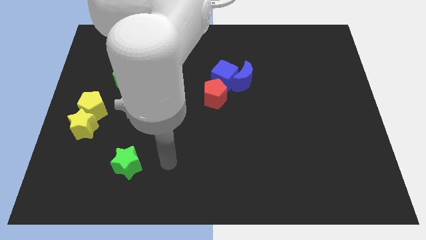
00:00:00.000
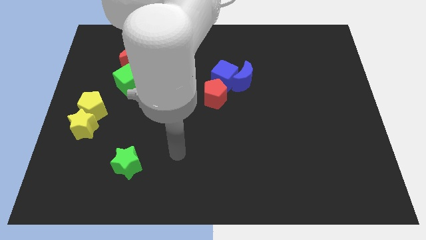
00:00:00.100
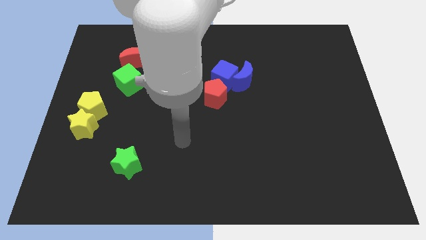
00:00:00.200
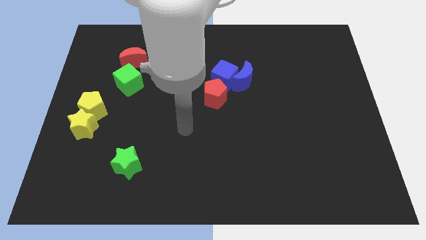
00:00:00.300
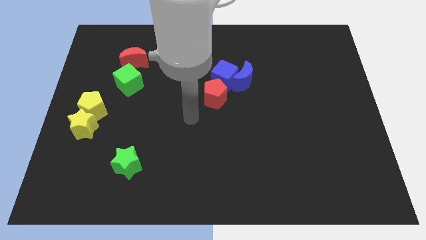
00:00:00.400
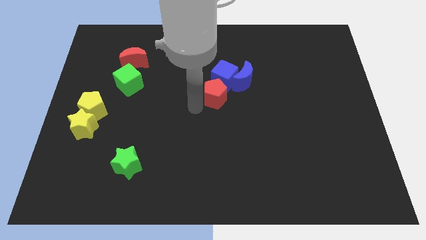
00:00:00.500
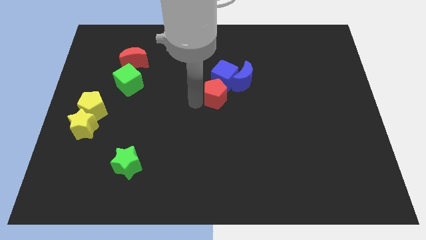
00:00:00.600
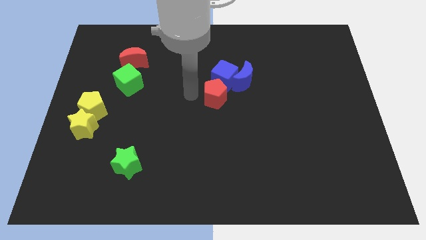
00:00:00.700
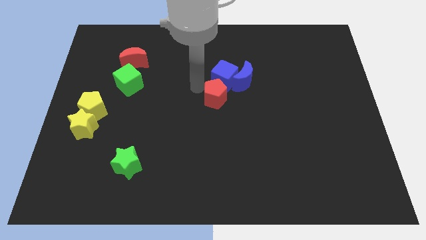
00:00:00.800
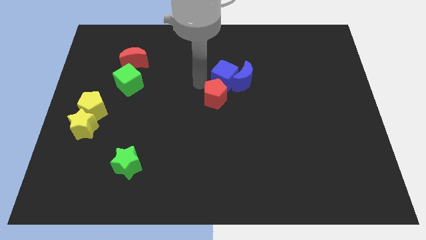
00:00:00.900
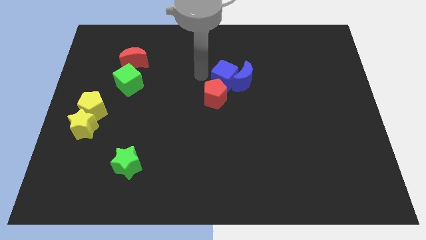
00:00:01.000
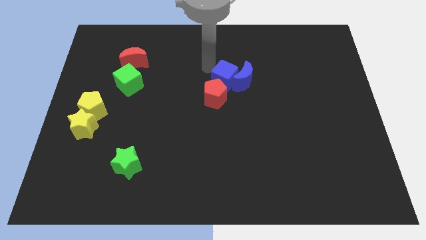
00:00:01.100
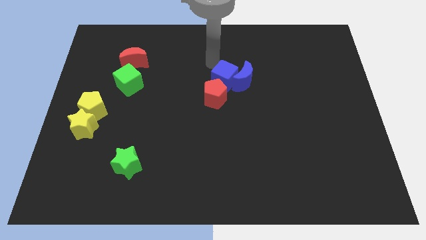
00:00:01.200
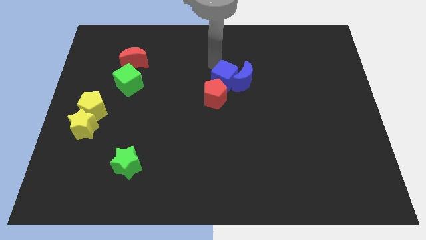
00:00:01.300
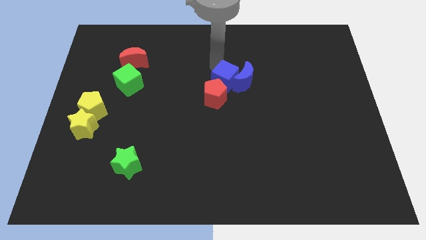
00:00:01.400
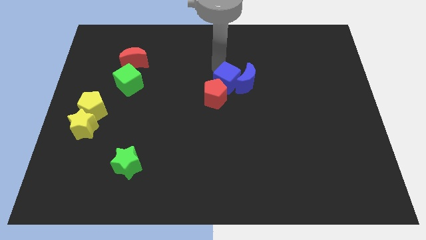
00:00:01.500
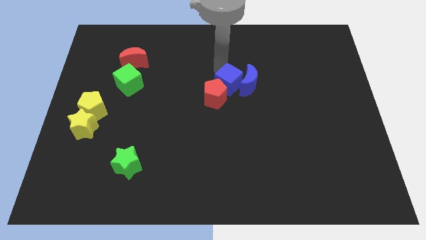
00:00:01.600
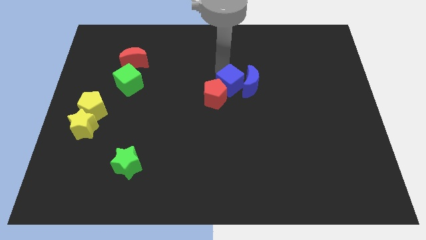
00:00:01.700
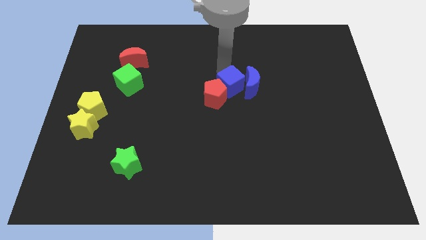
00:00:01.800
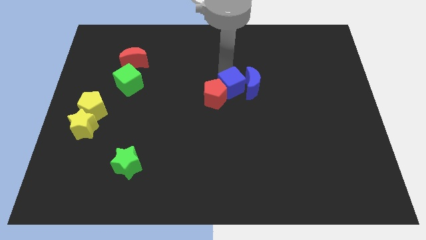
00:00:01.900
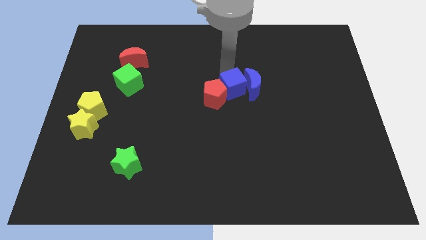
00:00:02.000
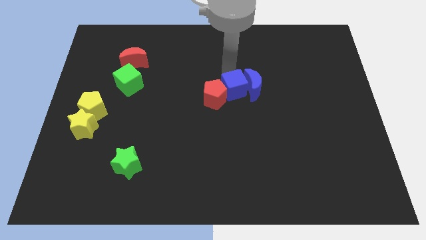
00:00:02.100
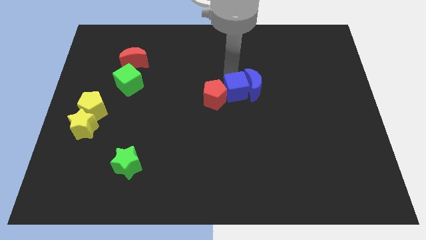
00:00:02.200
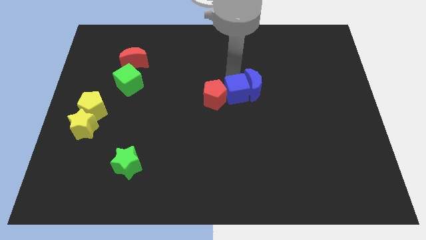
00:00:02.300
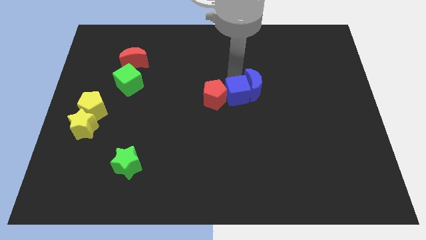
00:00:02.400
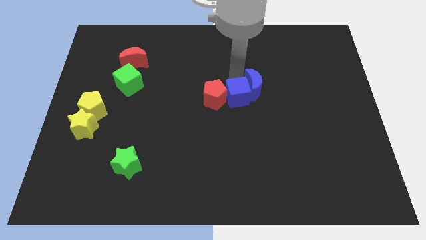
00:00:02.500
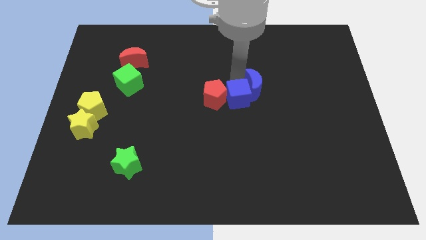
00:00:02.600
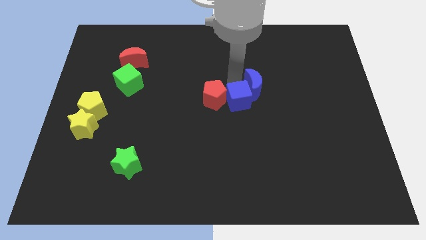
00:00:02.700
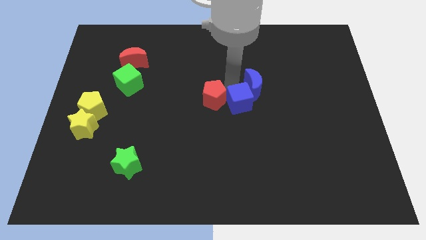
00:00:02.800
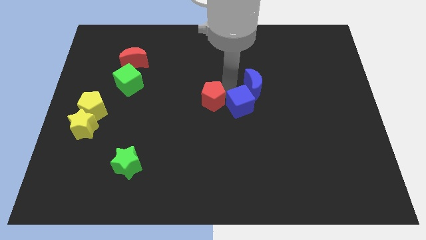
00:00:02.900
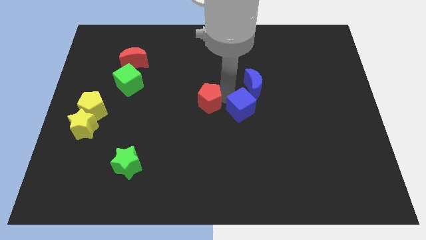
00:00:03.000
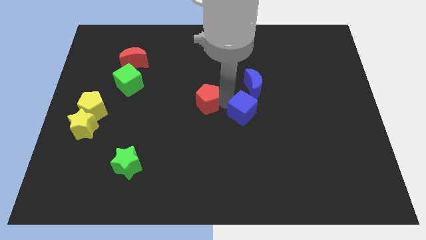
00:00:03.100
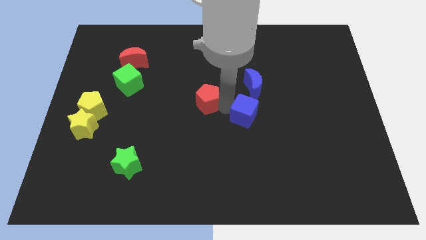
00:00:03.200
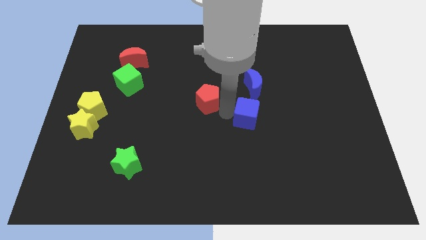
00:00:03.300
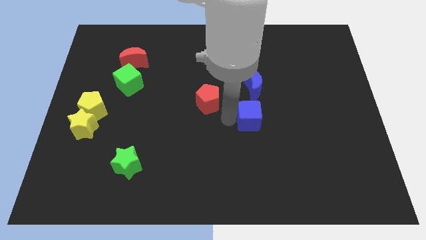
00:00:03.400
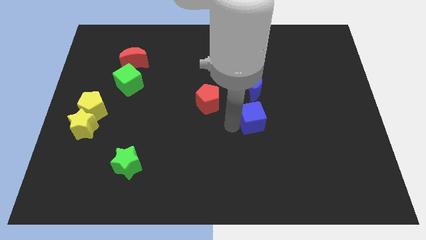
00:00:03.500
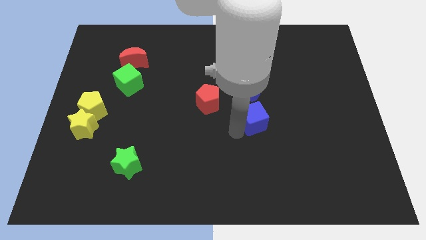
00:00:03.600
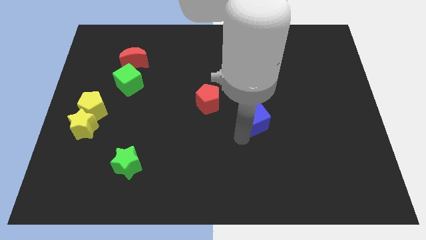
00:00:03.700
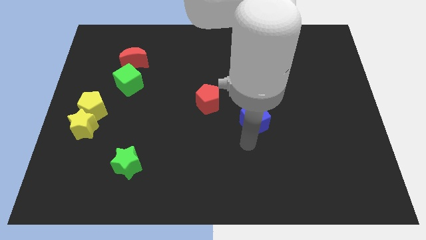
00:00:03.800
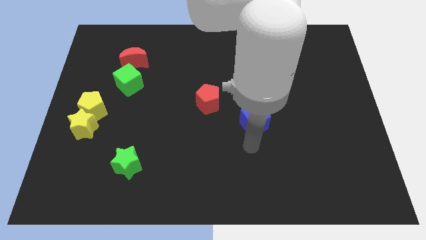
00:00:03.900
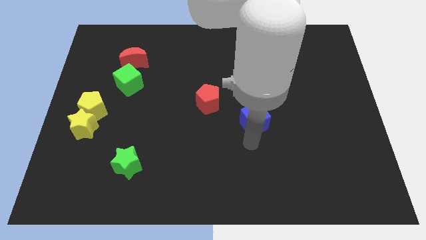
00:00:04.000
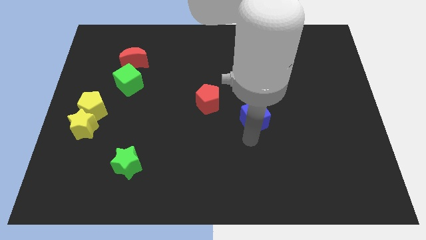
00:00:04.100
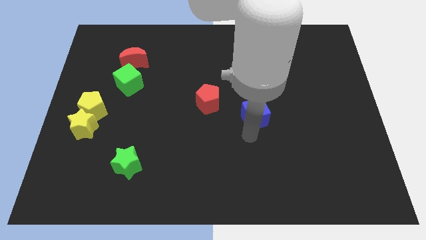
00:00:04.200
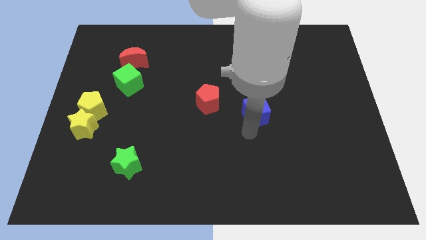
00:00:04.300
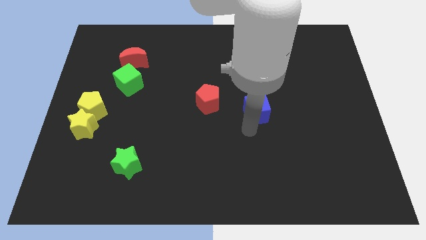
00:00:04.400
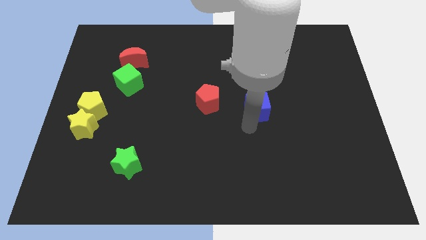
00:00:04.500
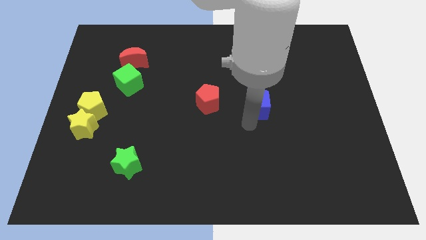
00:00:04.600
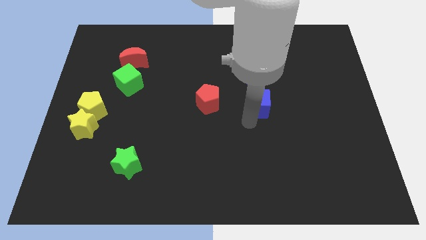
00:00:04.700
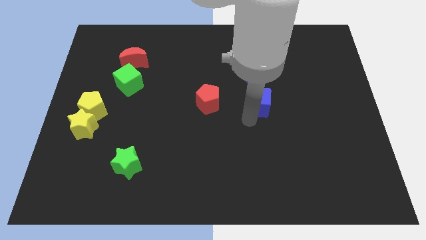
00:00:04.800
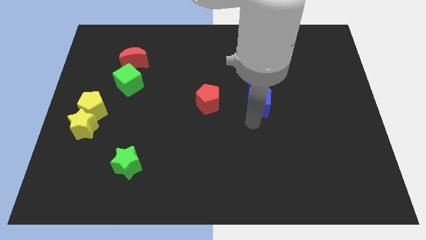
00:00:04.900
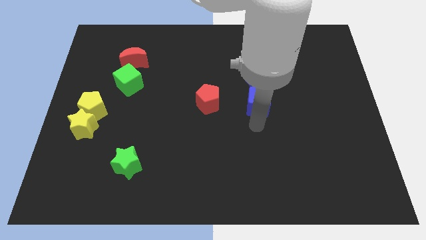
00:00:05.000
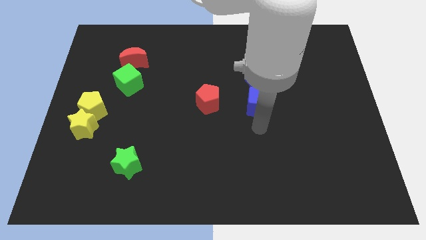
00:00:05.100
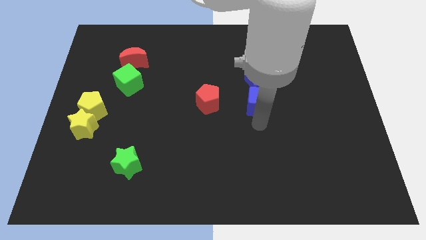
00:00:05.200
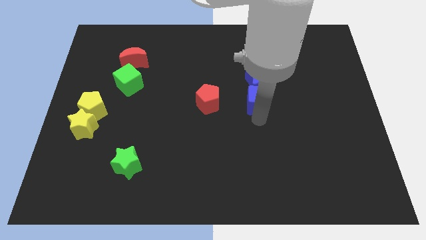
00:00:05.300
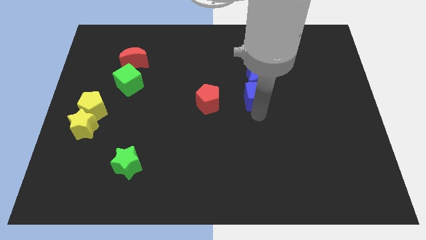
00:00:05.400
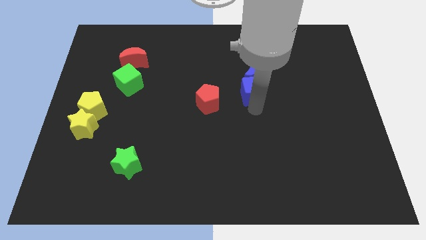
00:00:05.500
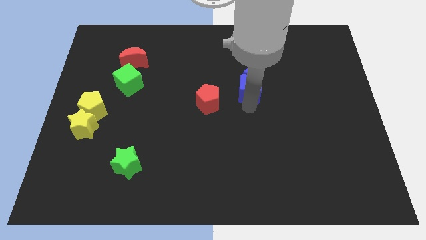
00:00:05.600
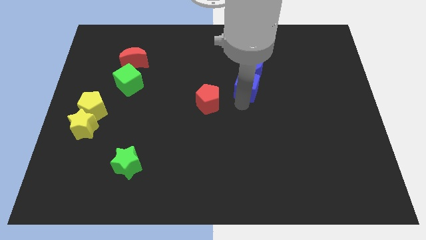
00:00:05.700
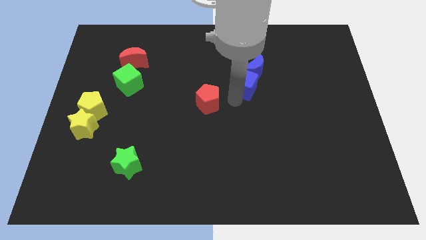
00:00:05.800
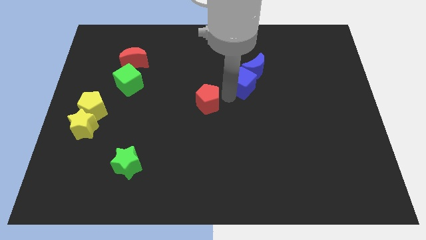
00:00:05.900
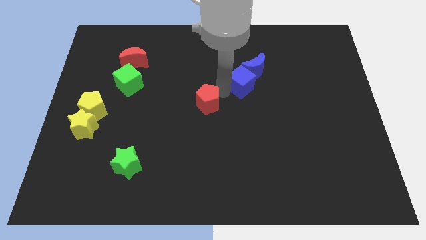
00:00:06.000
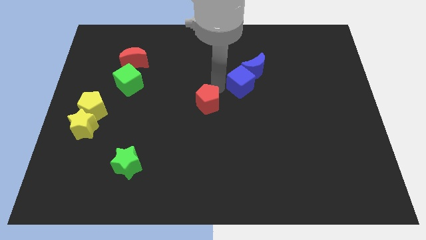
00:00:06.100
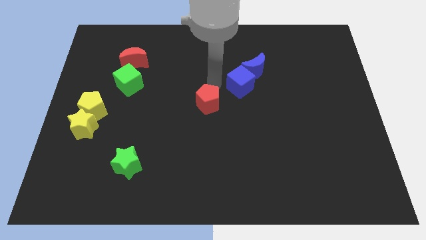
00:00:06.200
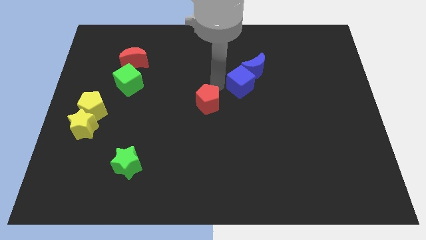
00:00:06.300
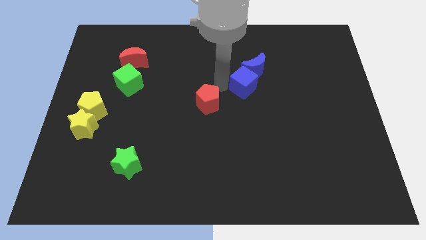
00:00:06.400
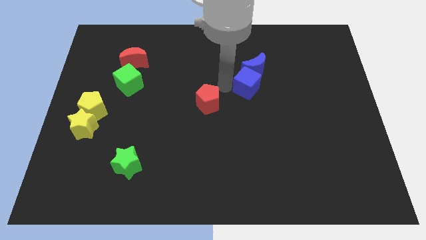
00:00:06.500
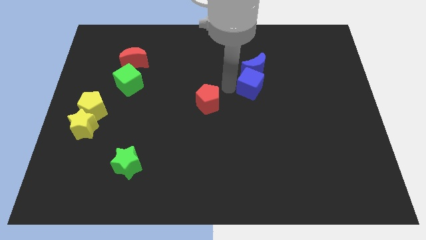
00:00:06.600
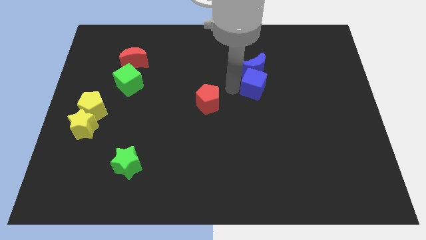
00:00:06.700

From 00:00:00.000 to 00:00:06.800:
move the blue cube right a little

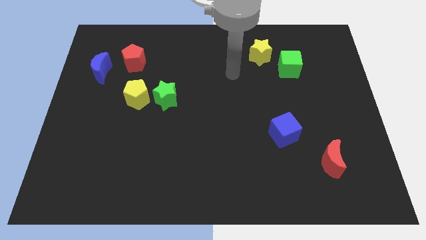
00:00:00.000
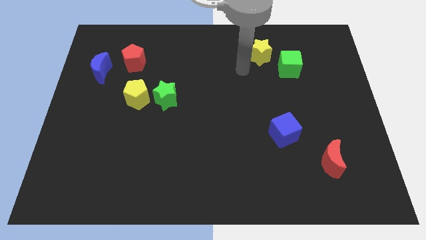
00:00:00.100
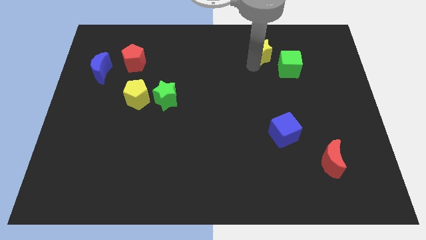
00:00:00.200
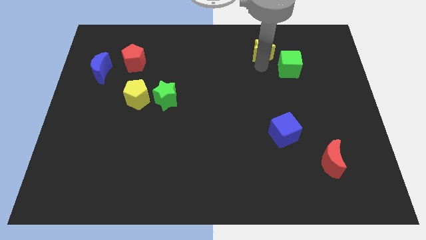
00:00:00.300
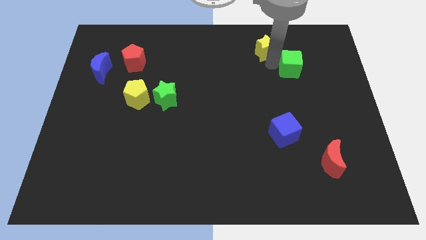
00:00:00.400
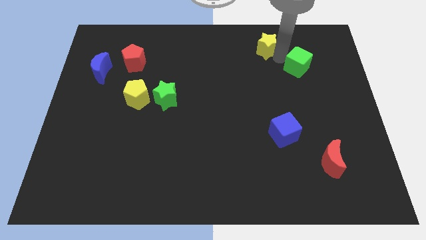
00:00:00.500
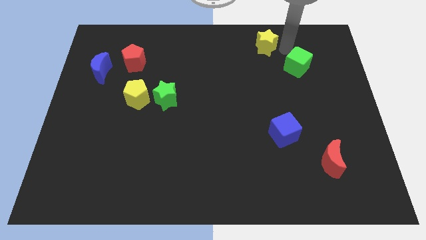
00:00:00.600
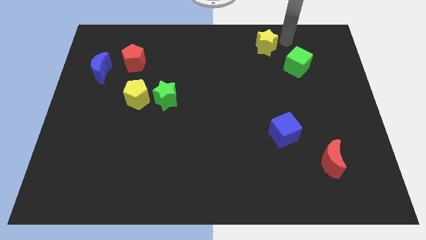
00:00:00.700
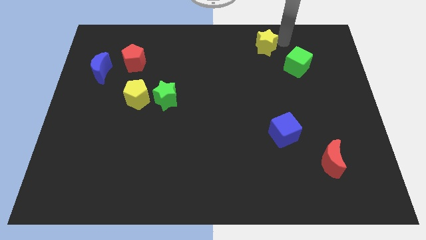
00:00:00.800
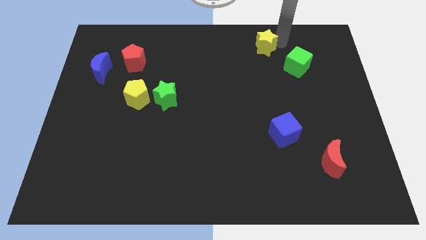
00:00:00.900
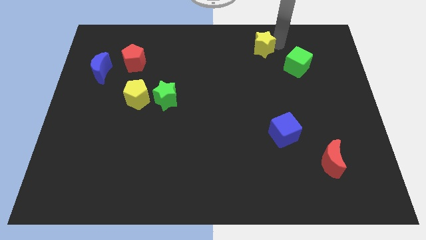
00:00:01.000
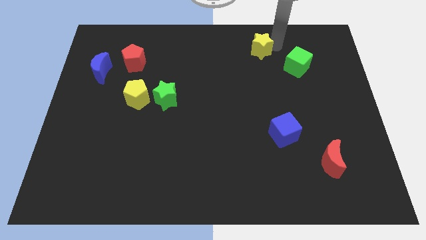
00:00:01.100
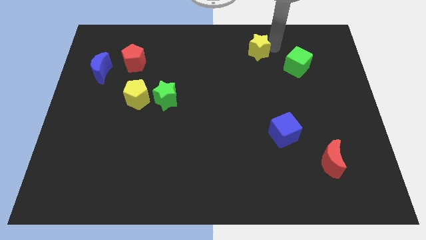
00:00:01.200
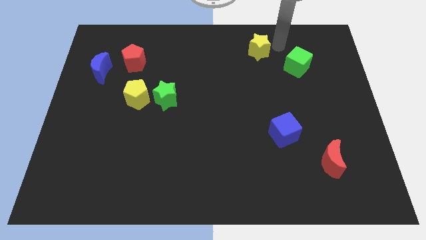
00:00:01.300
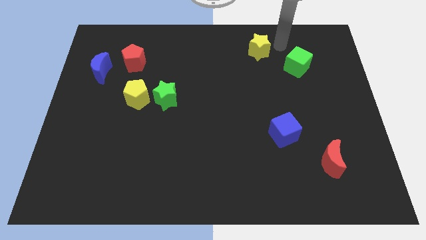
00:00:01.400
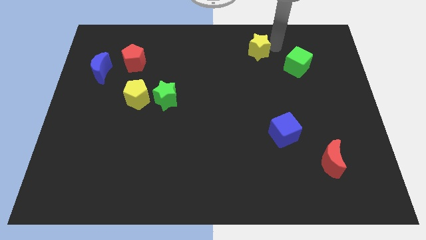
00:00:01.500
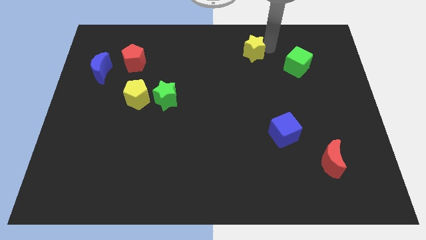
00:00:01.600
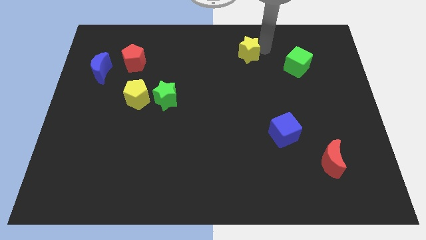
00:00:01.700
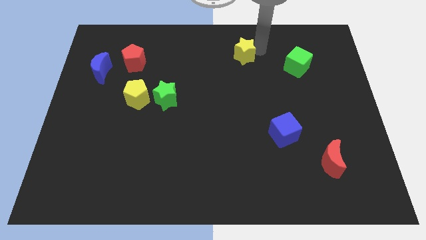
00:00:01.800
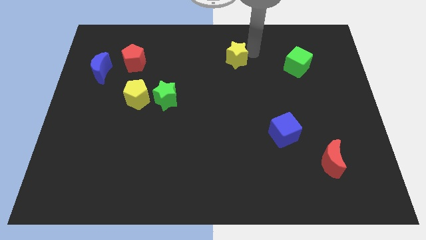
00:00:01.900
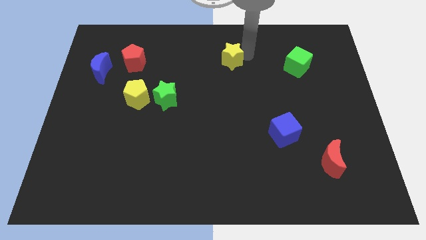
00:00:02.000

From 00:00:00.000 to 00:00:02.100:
slide the yellow star left a bit
